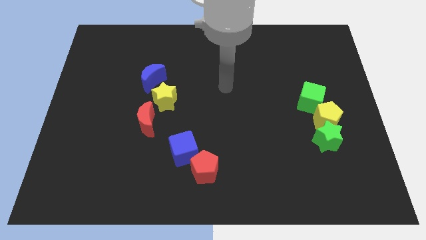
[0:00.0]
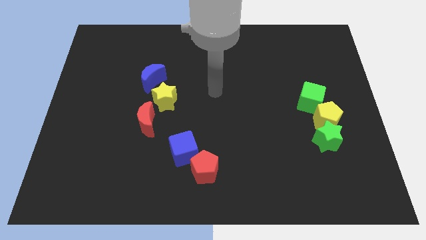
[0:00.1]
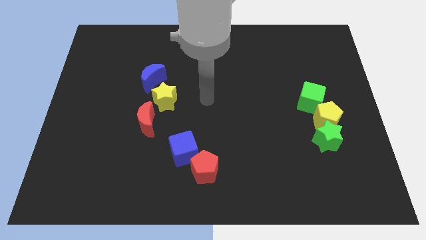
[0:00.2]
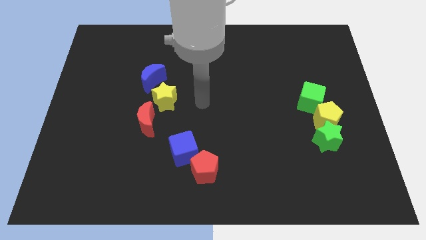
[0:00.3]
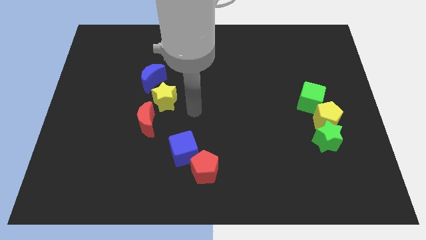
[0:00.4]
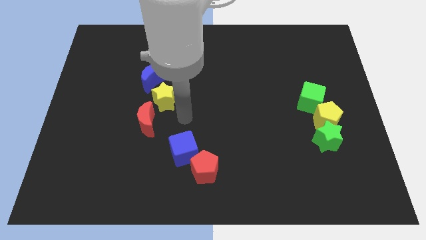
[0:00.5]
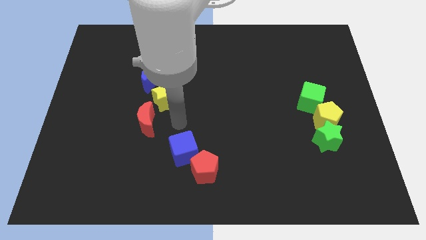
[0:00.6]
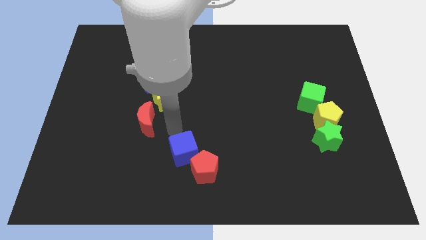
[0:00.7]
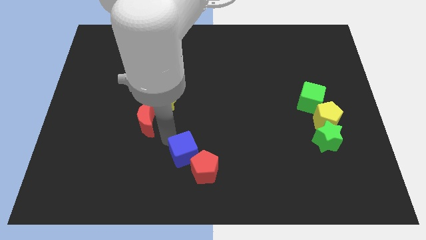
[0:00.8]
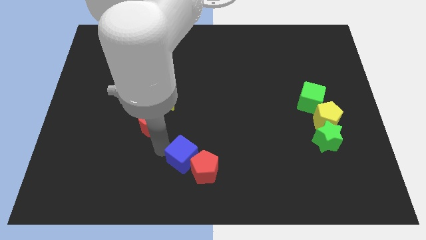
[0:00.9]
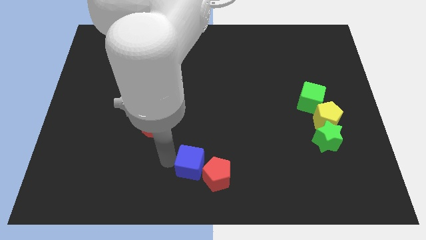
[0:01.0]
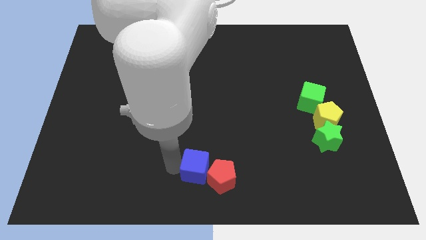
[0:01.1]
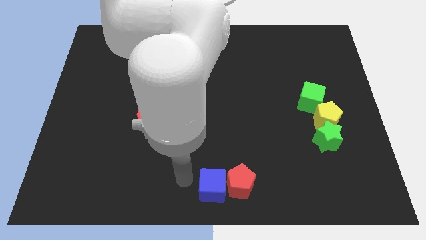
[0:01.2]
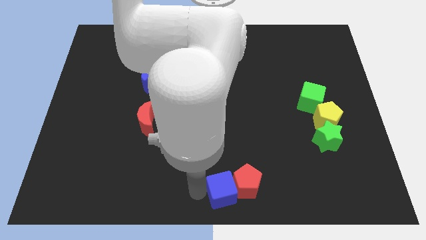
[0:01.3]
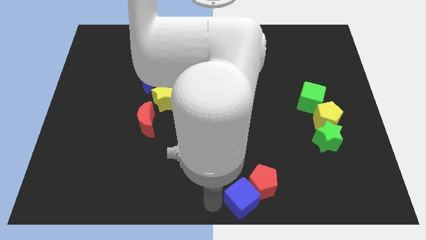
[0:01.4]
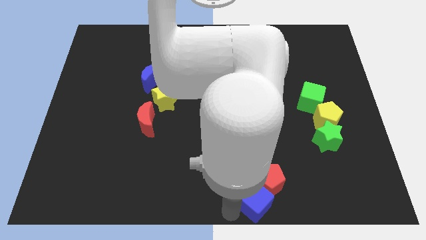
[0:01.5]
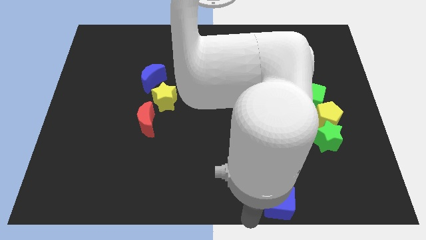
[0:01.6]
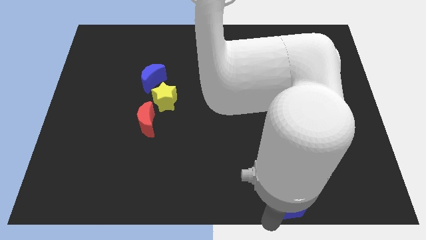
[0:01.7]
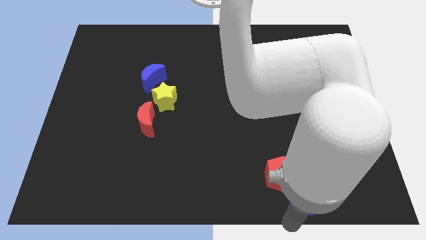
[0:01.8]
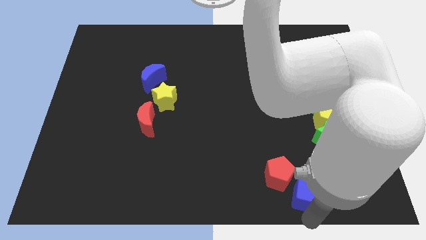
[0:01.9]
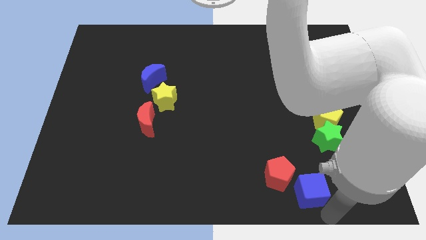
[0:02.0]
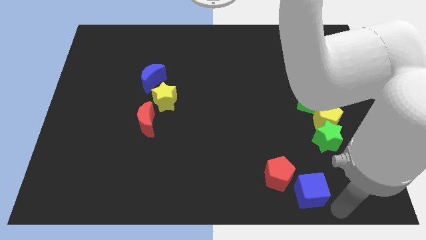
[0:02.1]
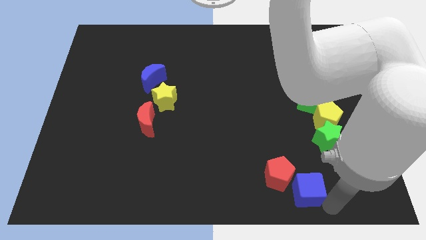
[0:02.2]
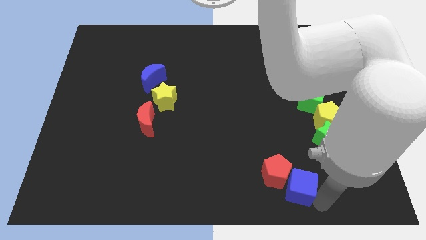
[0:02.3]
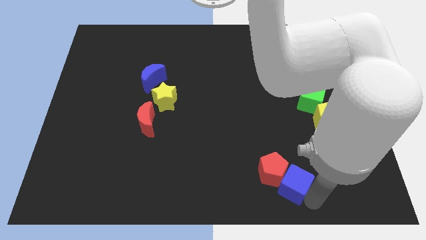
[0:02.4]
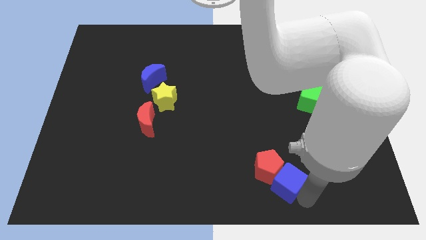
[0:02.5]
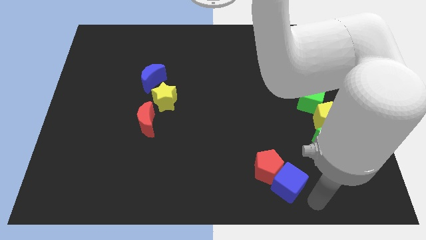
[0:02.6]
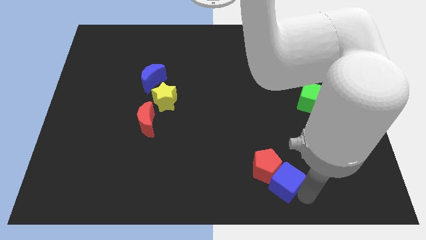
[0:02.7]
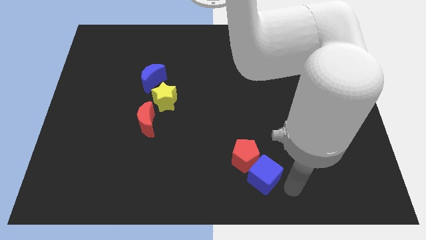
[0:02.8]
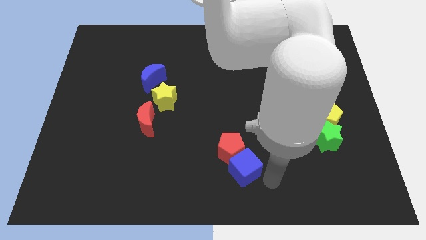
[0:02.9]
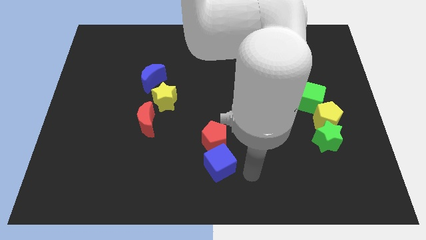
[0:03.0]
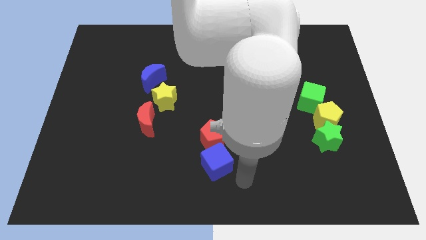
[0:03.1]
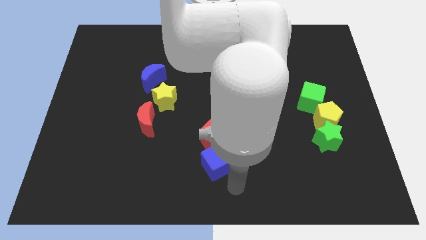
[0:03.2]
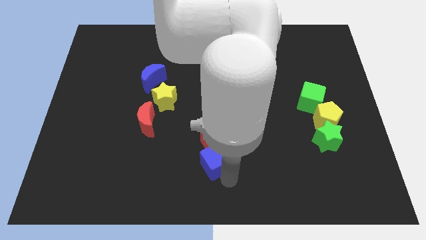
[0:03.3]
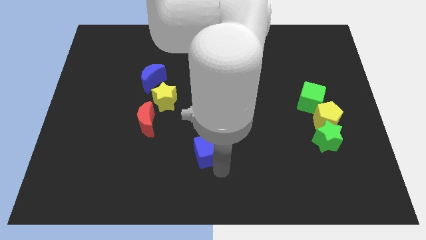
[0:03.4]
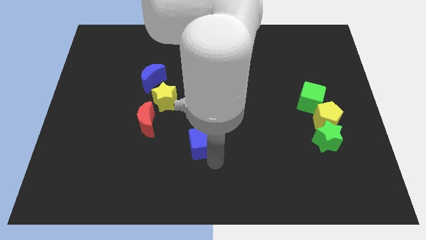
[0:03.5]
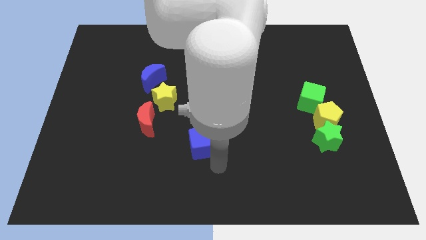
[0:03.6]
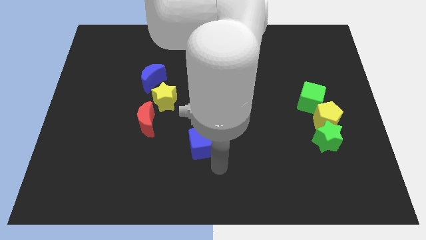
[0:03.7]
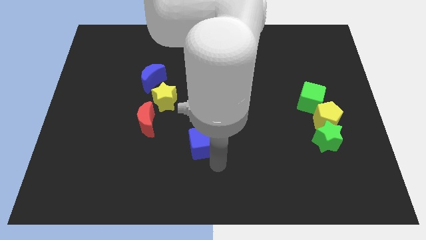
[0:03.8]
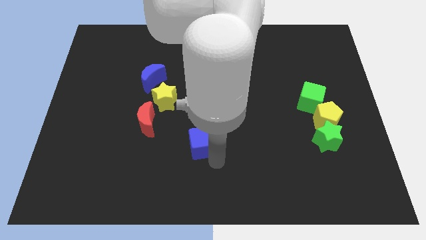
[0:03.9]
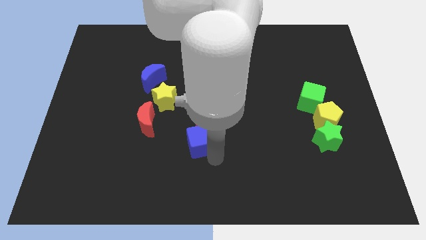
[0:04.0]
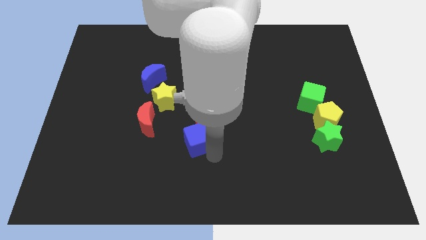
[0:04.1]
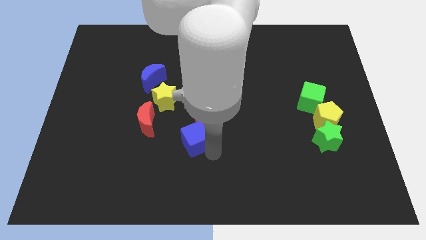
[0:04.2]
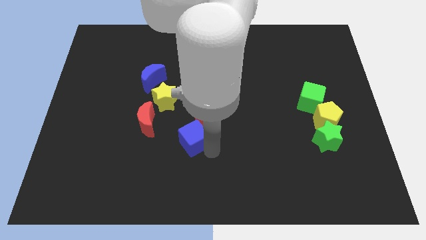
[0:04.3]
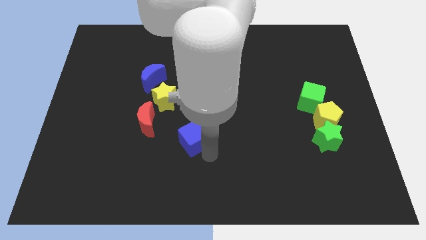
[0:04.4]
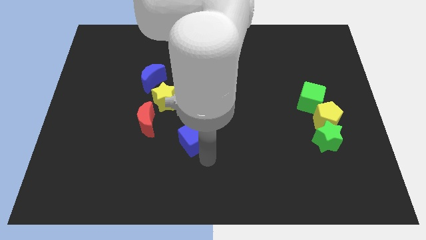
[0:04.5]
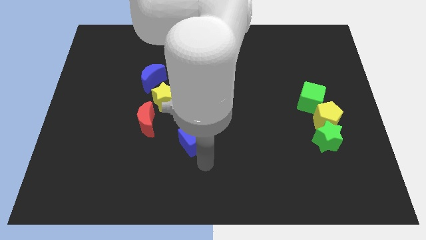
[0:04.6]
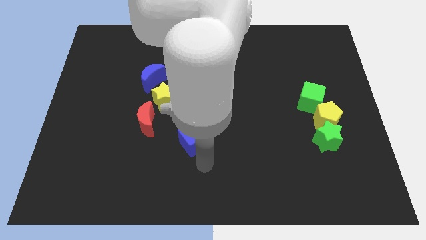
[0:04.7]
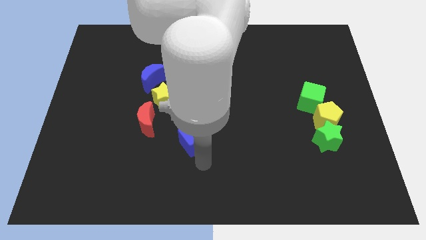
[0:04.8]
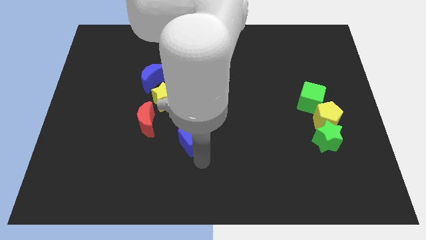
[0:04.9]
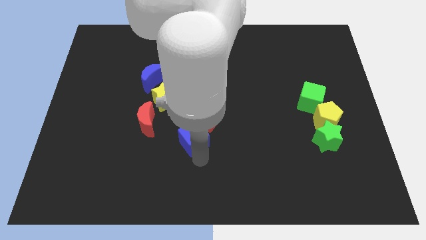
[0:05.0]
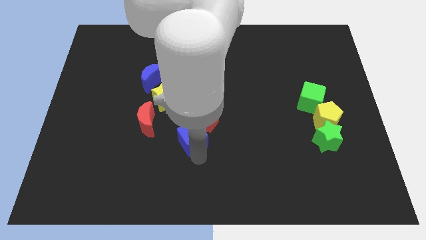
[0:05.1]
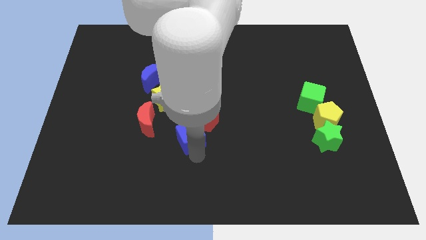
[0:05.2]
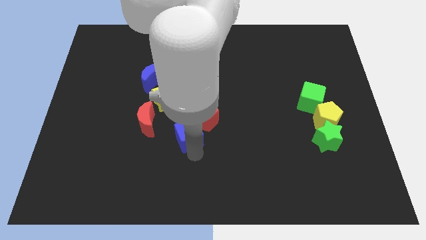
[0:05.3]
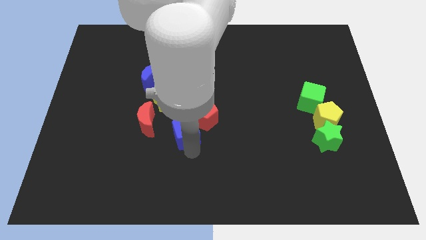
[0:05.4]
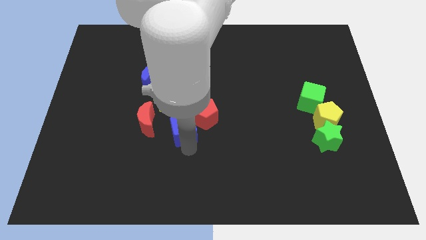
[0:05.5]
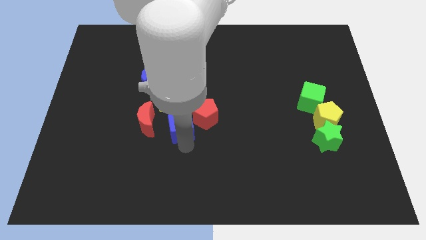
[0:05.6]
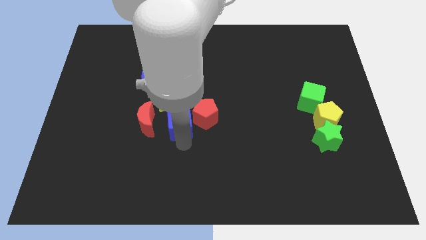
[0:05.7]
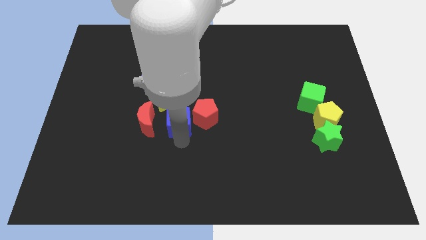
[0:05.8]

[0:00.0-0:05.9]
slightly push the blue cube up

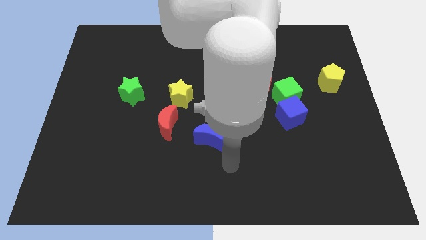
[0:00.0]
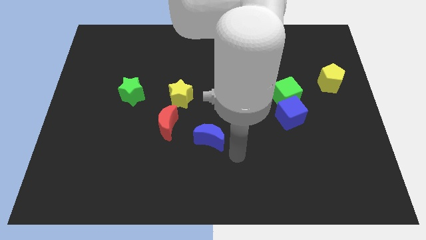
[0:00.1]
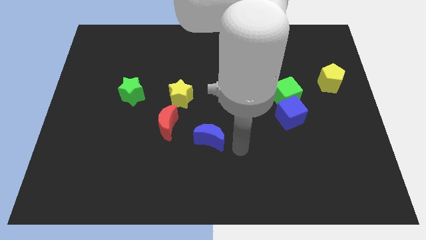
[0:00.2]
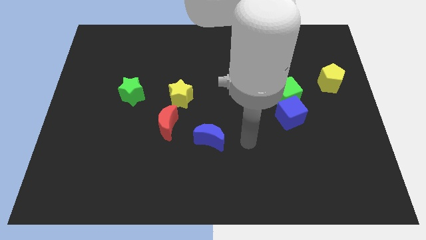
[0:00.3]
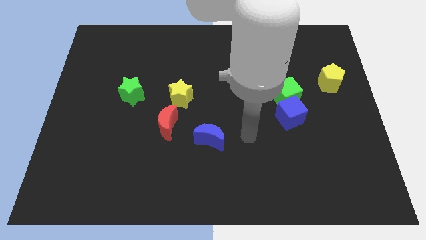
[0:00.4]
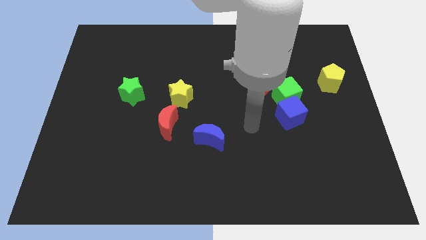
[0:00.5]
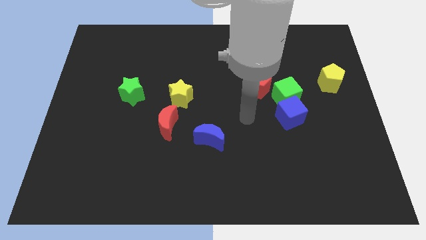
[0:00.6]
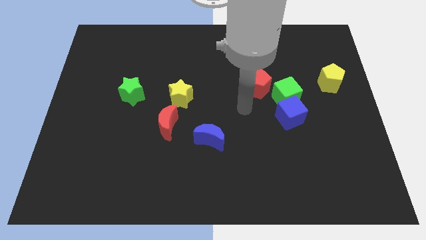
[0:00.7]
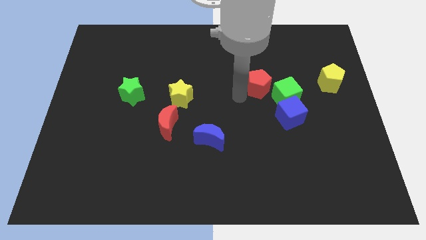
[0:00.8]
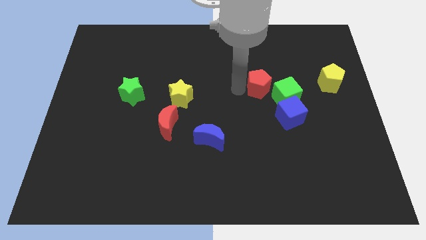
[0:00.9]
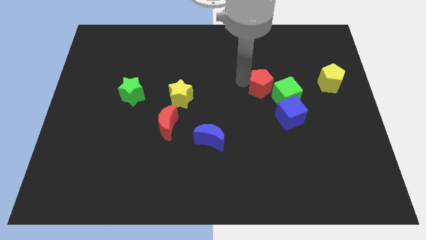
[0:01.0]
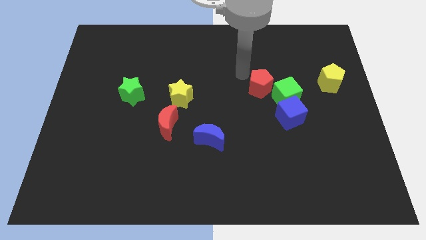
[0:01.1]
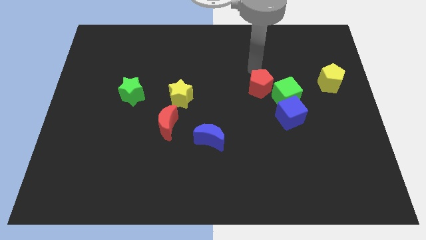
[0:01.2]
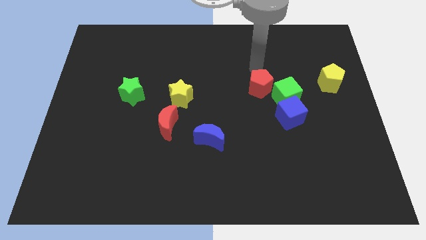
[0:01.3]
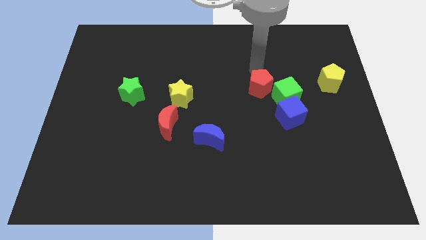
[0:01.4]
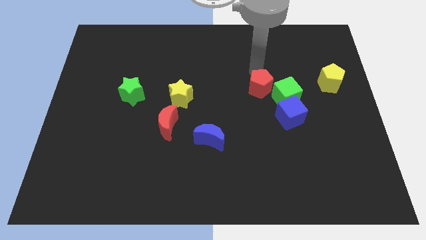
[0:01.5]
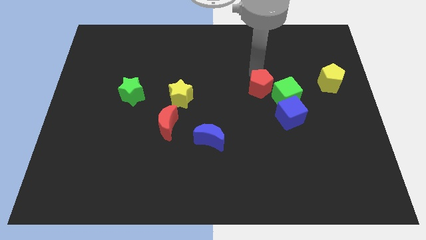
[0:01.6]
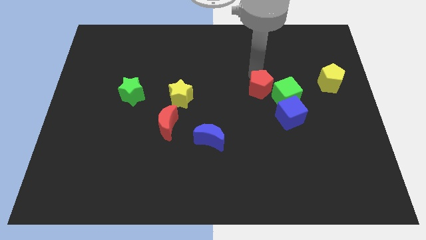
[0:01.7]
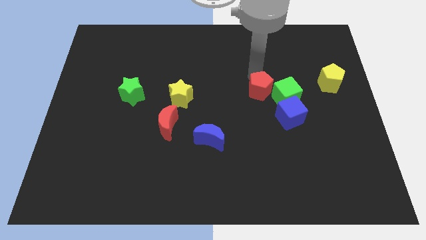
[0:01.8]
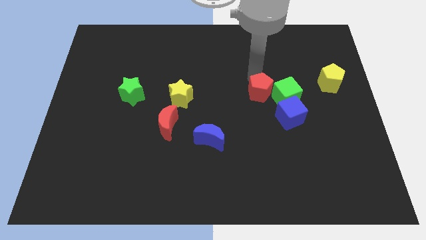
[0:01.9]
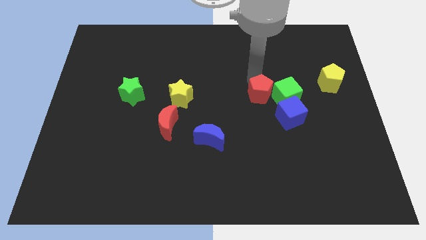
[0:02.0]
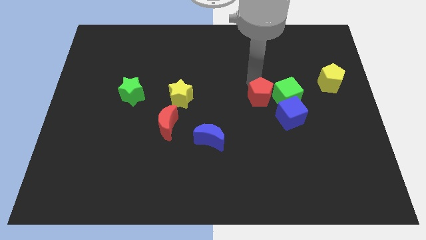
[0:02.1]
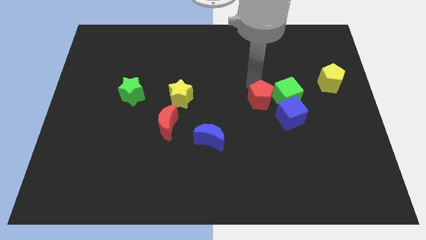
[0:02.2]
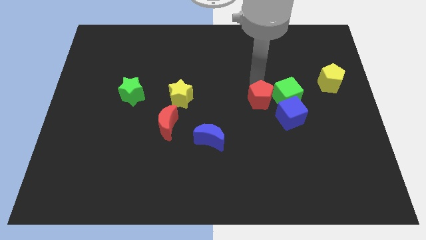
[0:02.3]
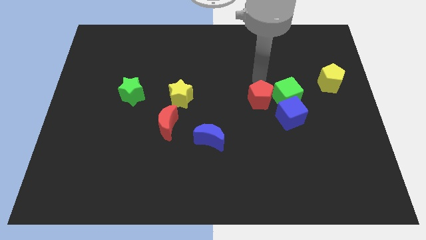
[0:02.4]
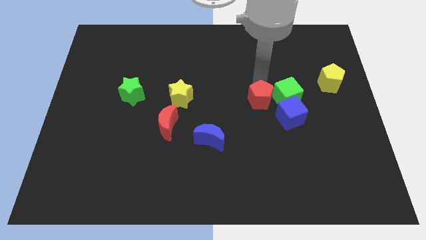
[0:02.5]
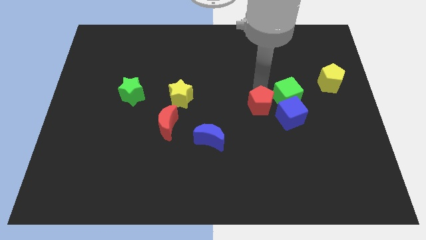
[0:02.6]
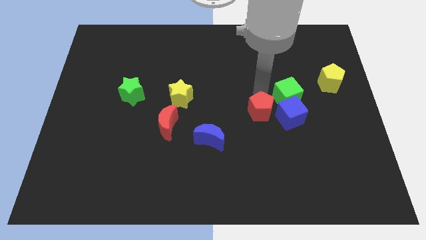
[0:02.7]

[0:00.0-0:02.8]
move the red pentagon slightly downwards
